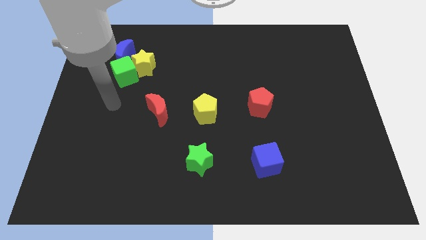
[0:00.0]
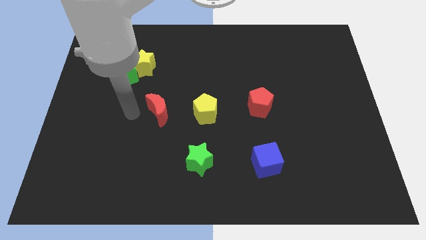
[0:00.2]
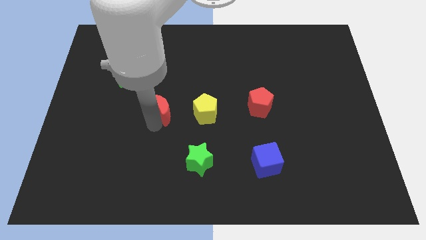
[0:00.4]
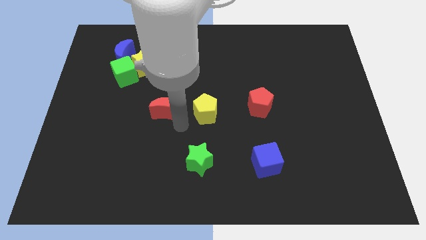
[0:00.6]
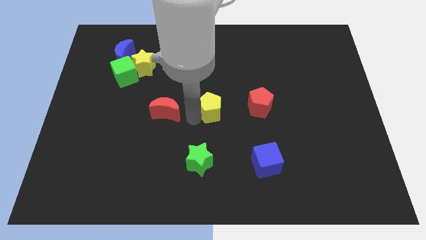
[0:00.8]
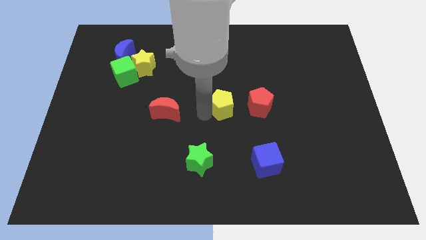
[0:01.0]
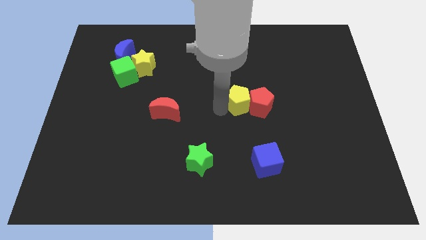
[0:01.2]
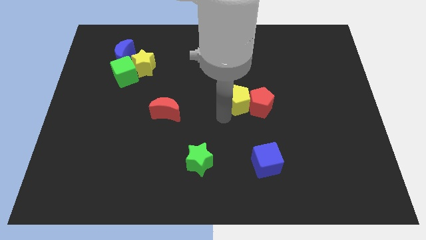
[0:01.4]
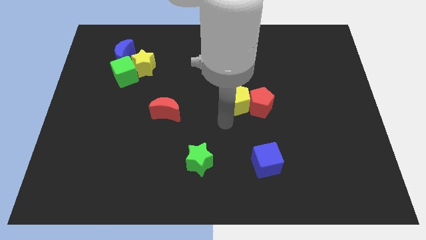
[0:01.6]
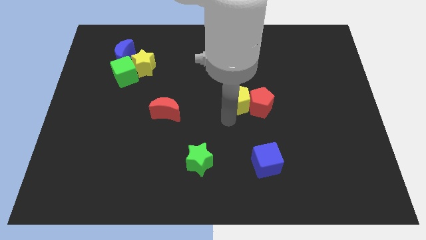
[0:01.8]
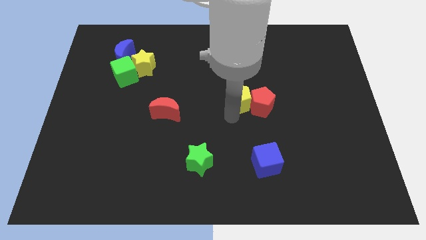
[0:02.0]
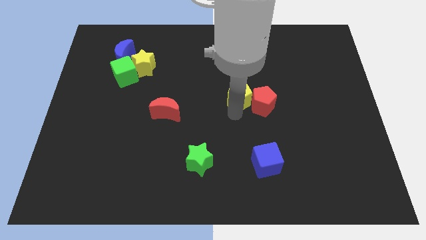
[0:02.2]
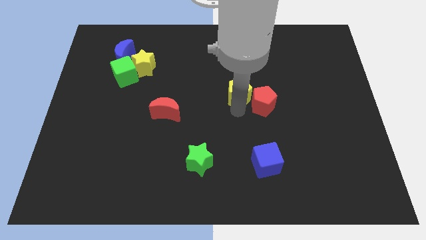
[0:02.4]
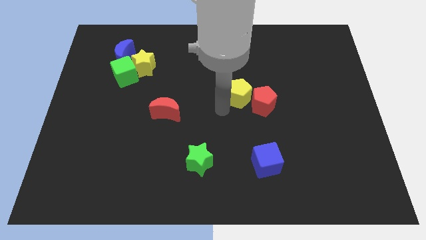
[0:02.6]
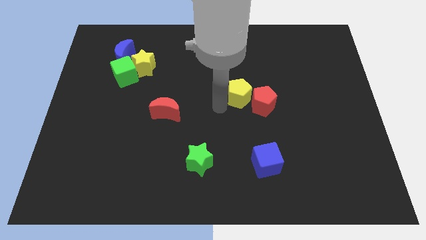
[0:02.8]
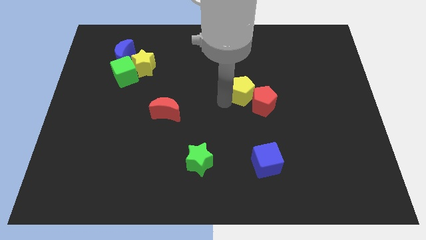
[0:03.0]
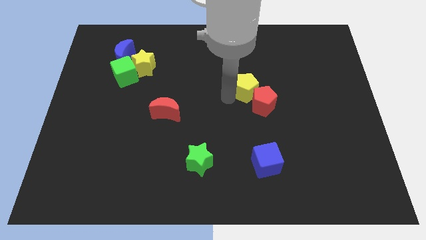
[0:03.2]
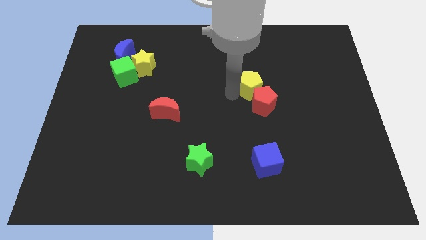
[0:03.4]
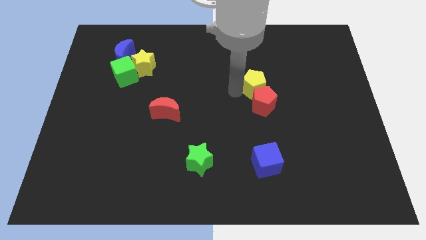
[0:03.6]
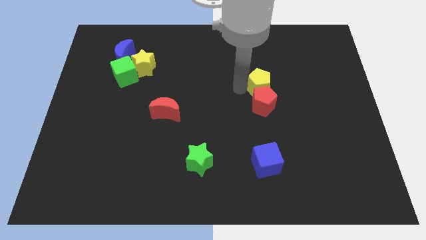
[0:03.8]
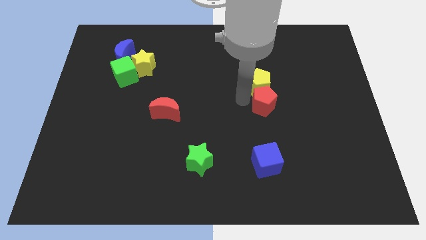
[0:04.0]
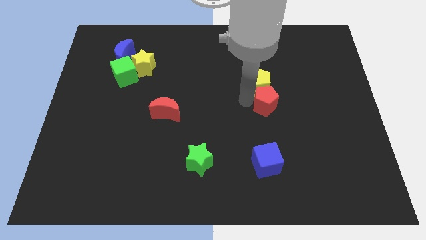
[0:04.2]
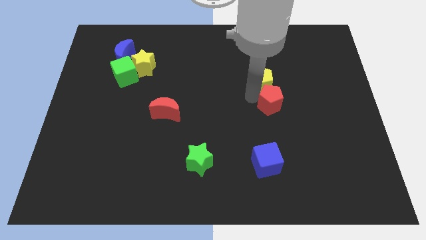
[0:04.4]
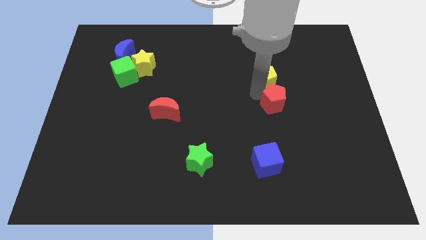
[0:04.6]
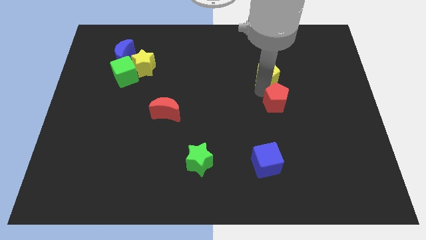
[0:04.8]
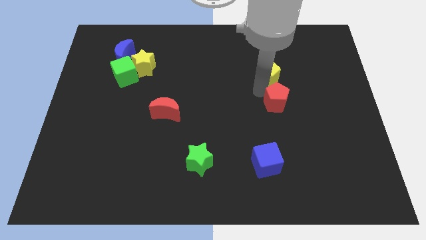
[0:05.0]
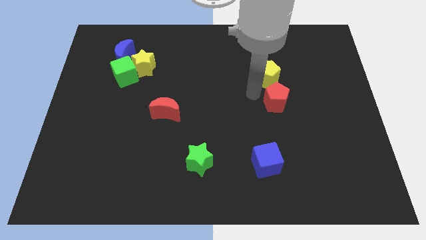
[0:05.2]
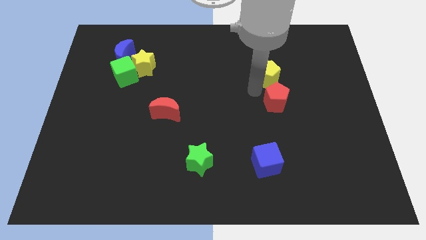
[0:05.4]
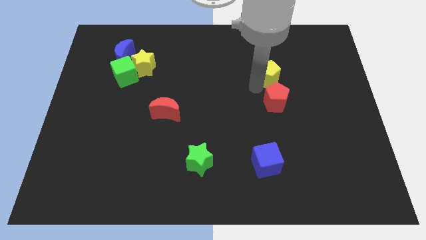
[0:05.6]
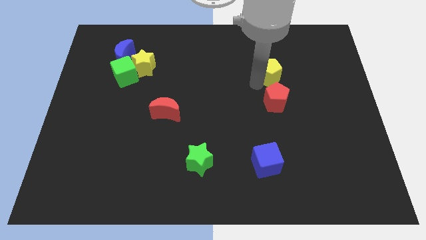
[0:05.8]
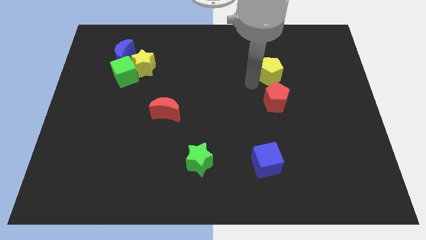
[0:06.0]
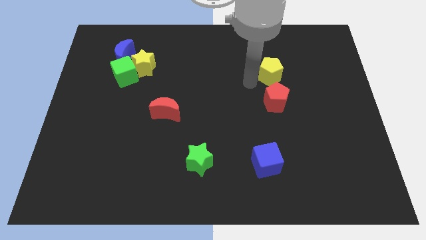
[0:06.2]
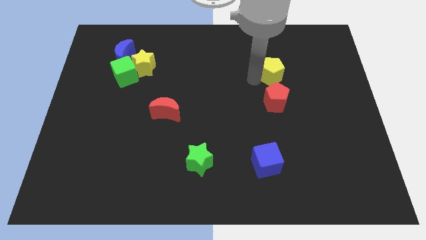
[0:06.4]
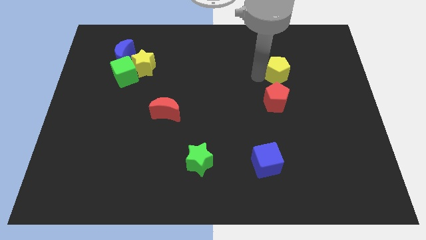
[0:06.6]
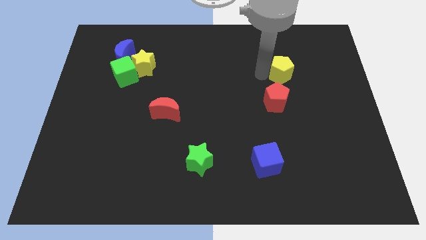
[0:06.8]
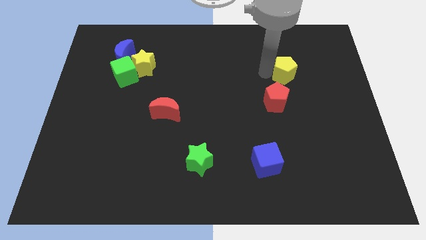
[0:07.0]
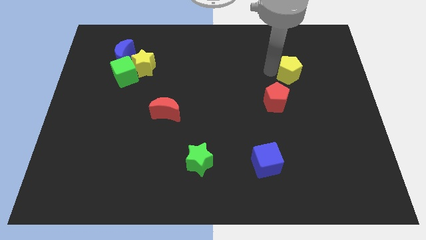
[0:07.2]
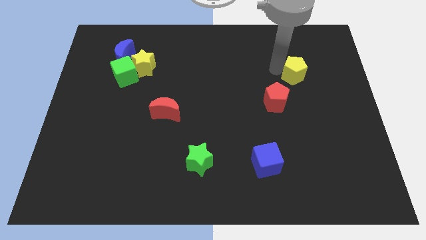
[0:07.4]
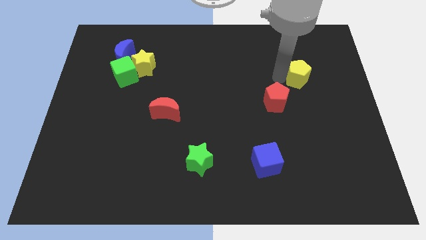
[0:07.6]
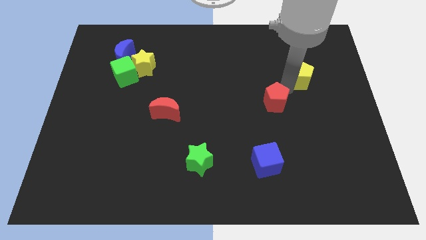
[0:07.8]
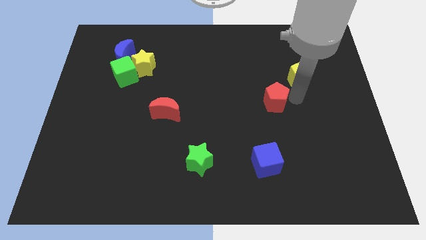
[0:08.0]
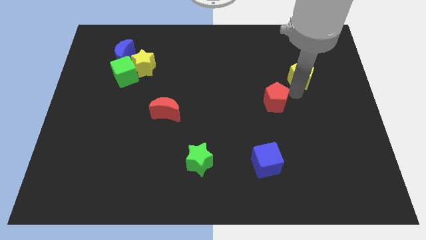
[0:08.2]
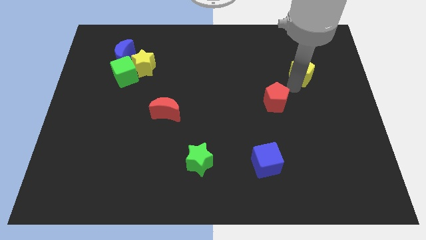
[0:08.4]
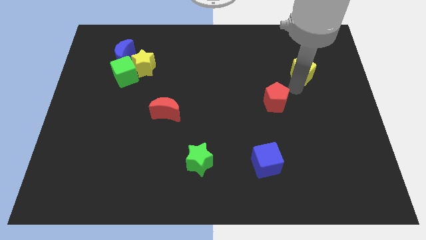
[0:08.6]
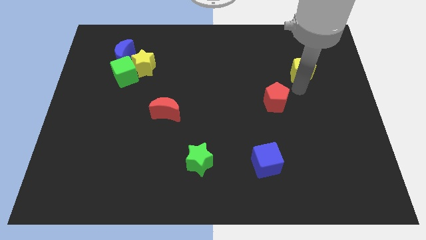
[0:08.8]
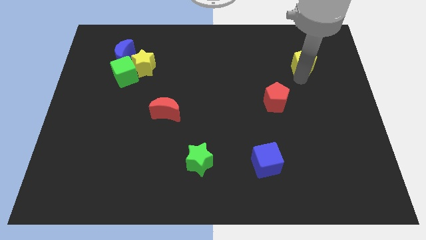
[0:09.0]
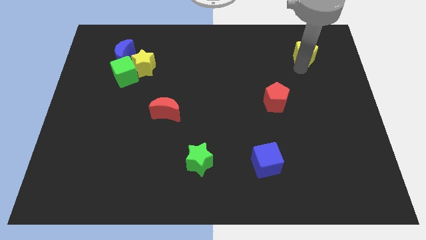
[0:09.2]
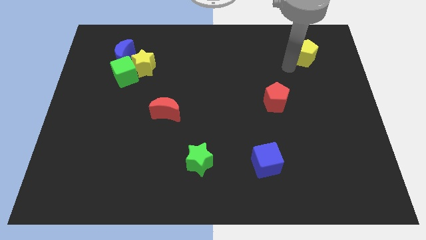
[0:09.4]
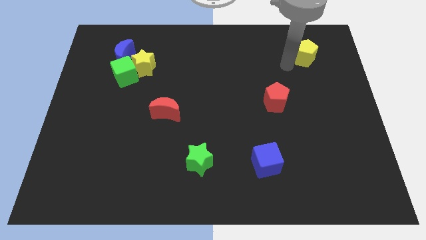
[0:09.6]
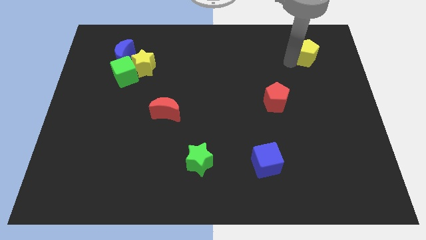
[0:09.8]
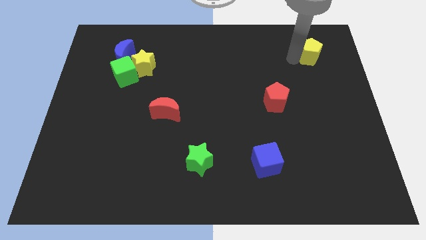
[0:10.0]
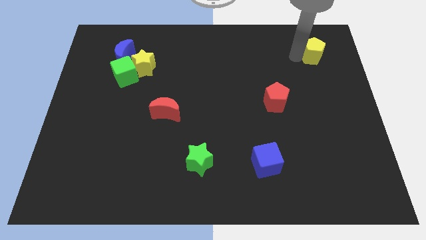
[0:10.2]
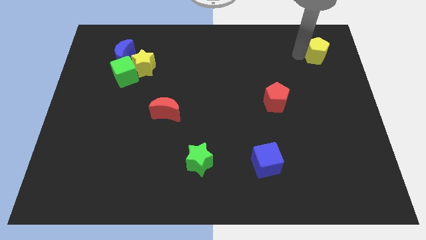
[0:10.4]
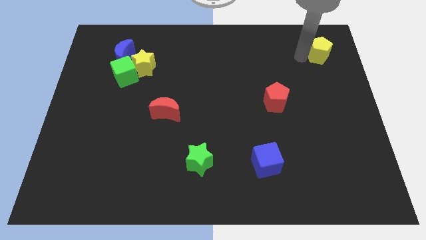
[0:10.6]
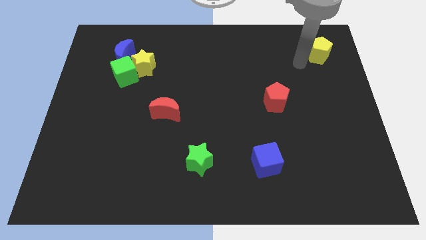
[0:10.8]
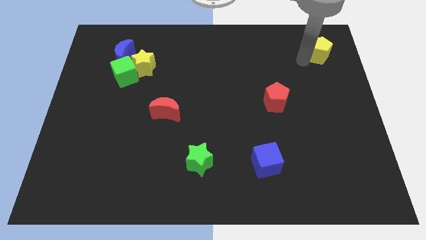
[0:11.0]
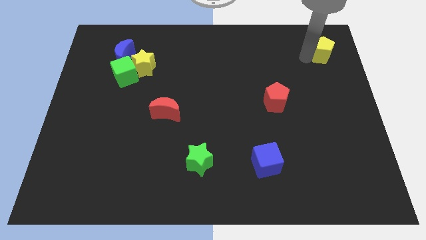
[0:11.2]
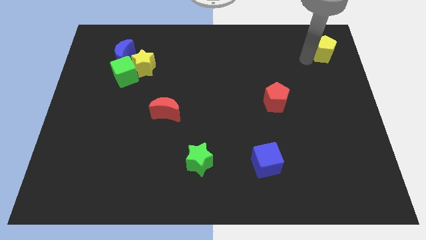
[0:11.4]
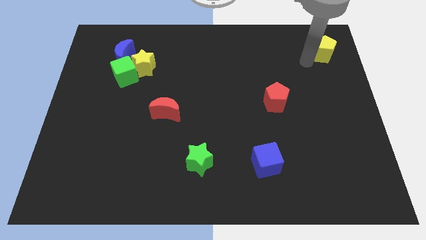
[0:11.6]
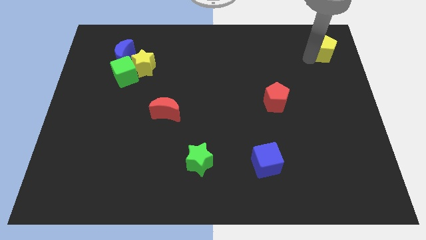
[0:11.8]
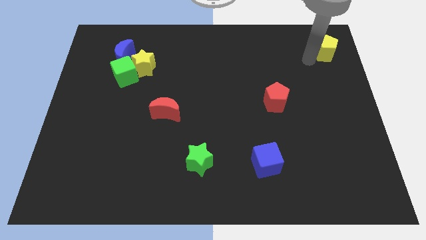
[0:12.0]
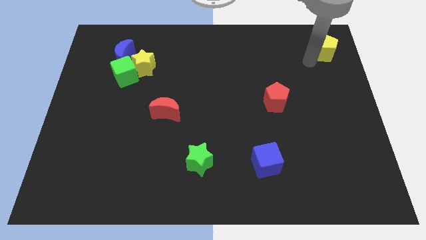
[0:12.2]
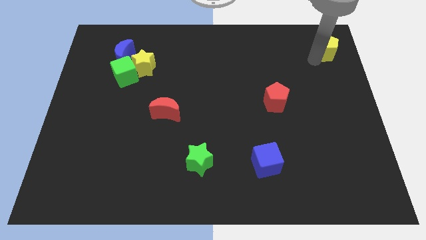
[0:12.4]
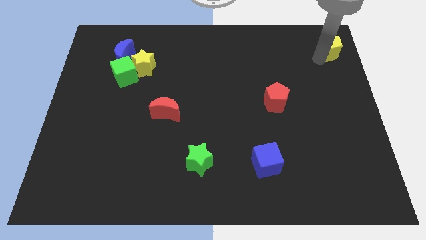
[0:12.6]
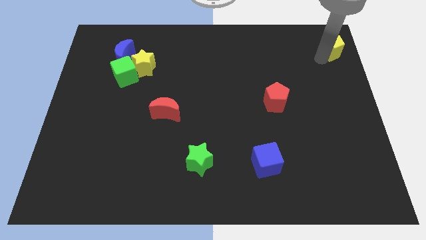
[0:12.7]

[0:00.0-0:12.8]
put the yellow pentagon to the top right corner
